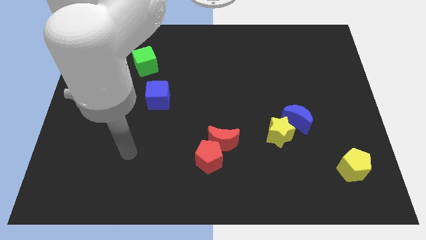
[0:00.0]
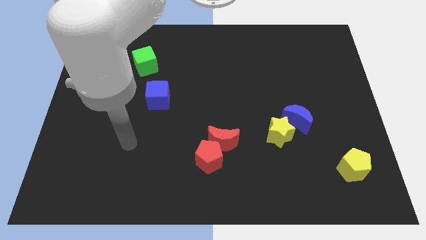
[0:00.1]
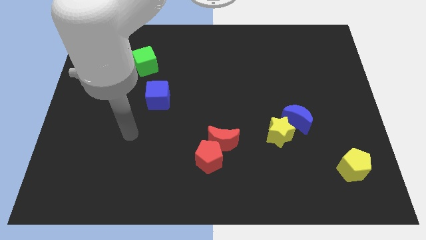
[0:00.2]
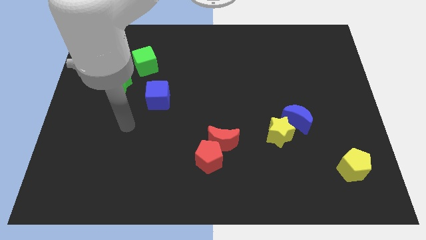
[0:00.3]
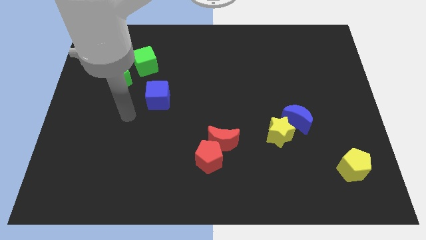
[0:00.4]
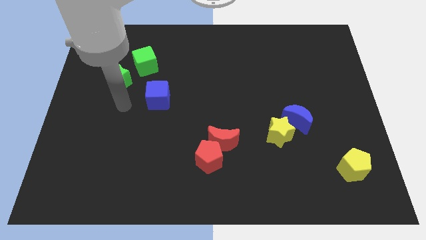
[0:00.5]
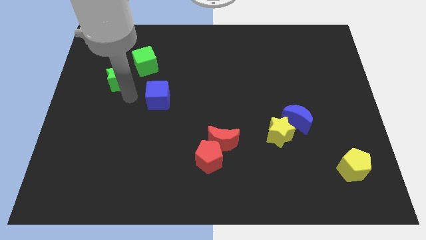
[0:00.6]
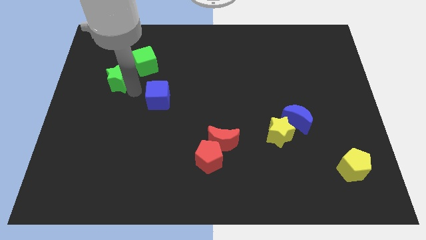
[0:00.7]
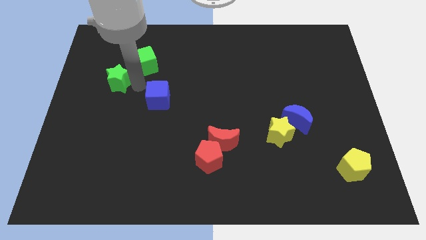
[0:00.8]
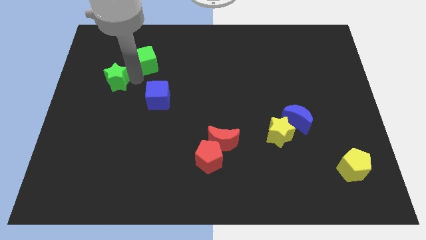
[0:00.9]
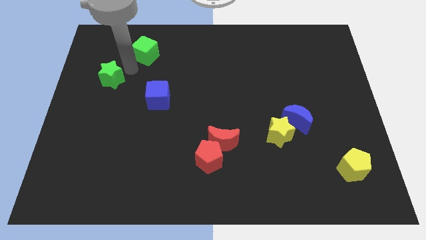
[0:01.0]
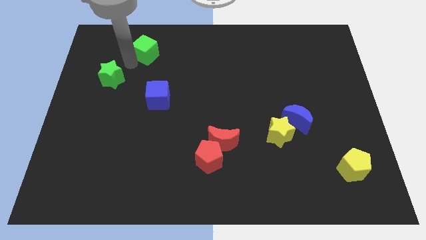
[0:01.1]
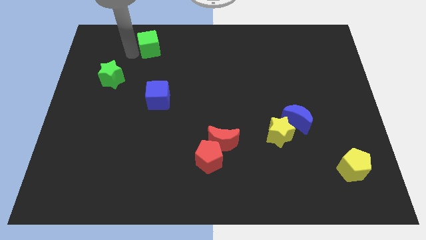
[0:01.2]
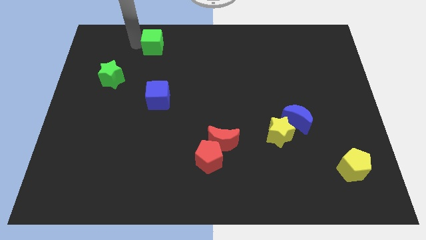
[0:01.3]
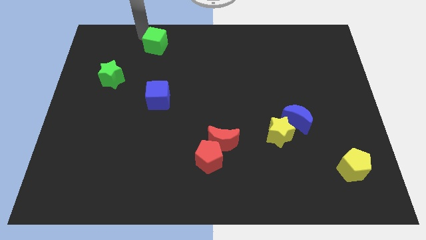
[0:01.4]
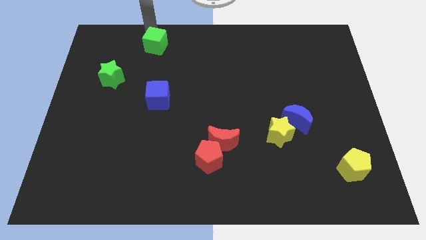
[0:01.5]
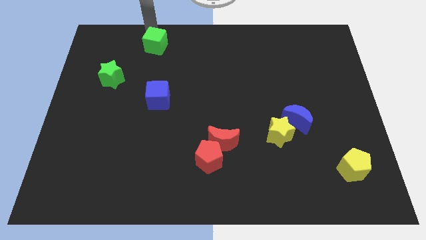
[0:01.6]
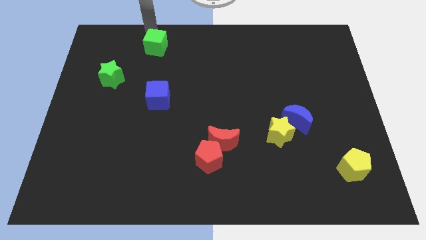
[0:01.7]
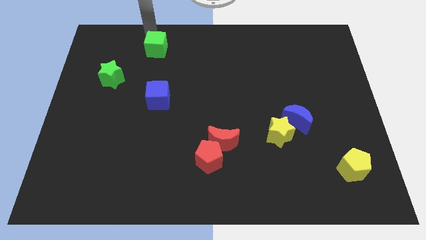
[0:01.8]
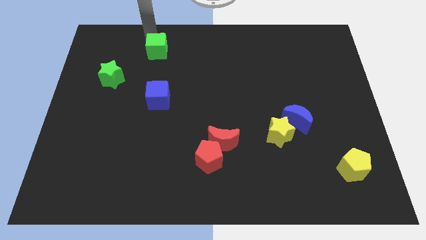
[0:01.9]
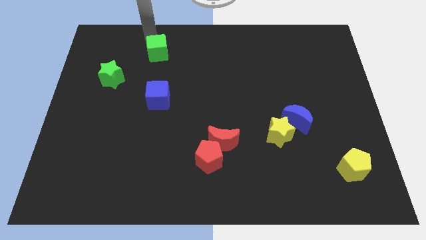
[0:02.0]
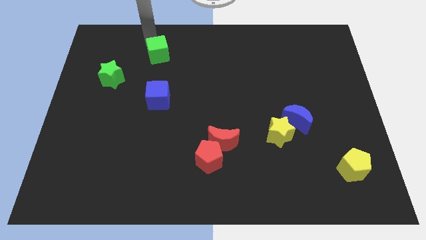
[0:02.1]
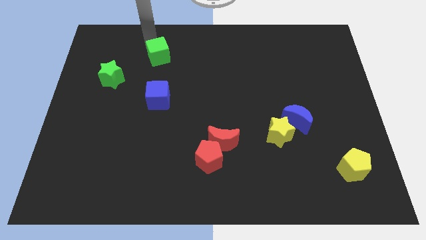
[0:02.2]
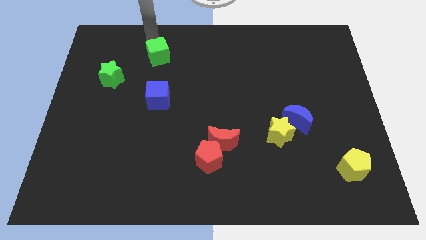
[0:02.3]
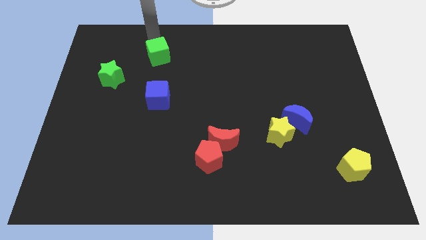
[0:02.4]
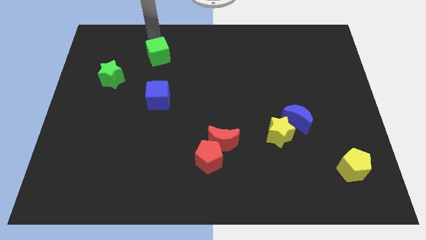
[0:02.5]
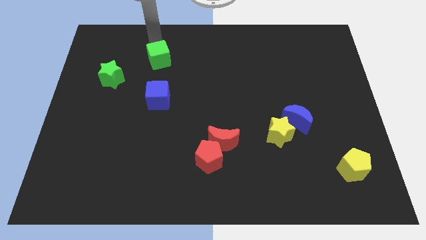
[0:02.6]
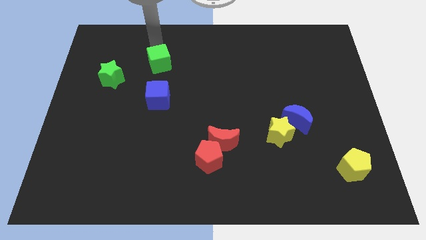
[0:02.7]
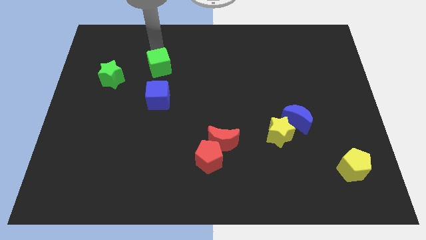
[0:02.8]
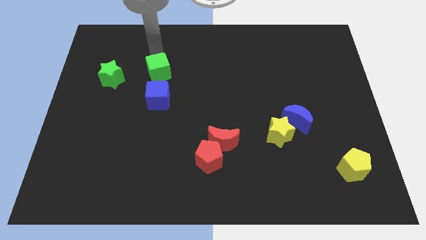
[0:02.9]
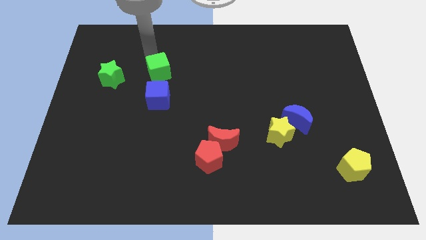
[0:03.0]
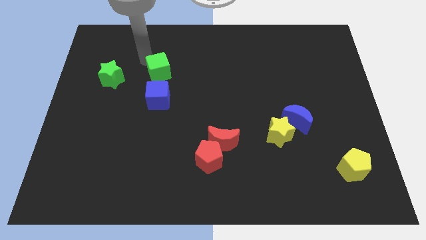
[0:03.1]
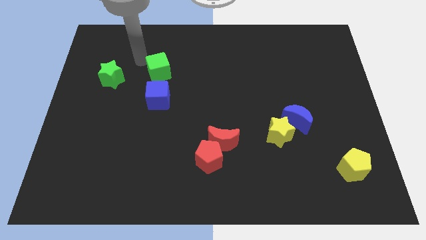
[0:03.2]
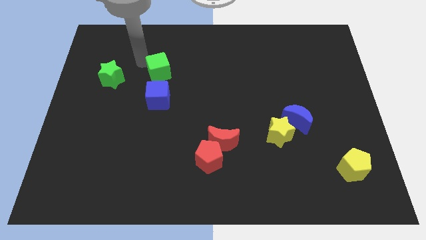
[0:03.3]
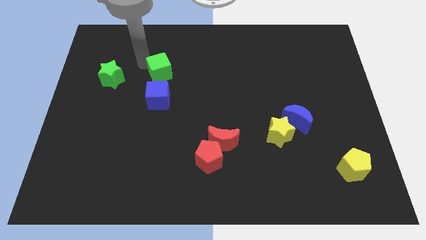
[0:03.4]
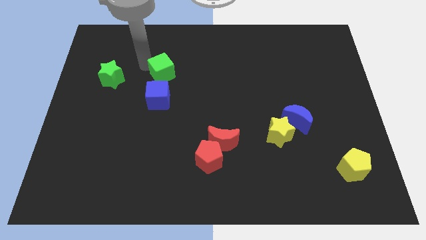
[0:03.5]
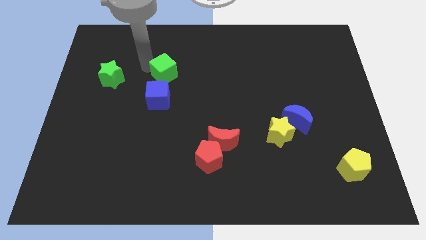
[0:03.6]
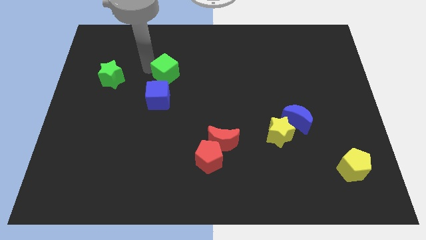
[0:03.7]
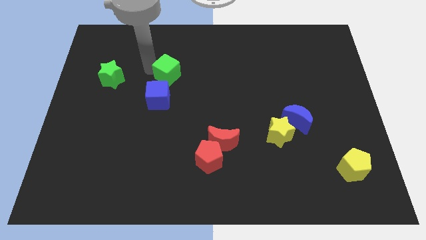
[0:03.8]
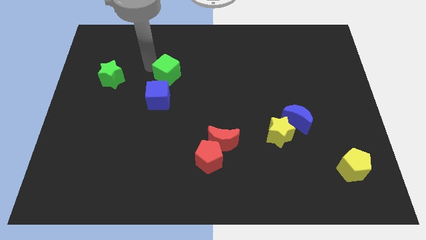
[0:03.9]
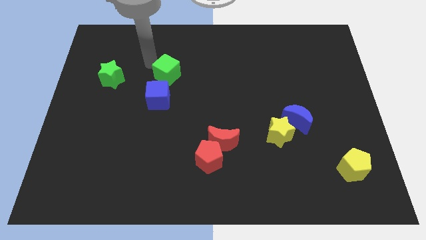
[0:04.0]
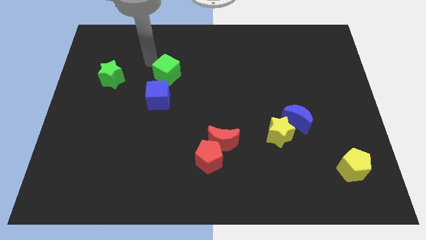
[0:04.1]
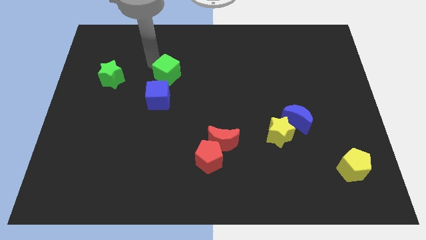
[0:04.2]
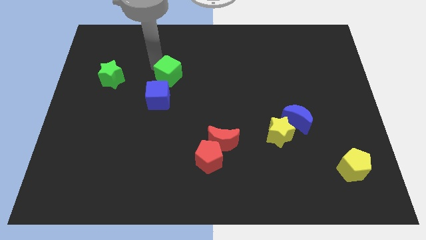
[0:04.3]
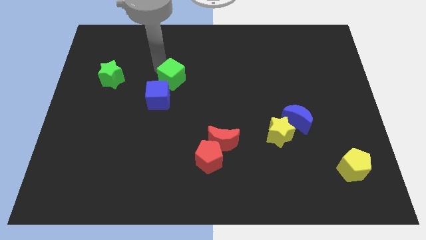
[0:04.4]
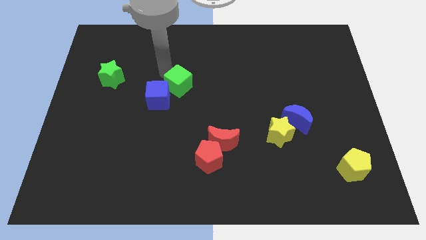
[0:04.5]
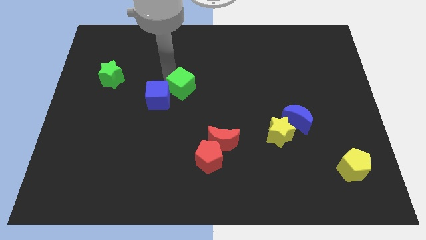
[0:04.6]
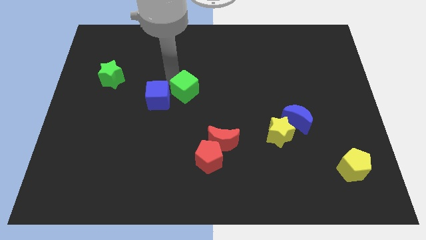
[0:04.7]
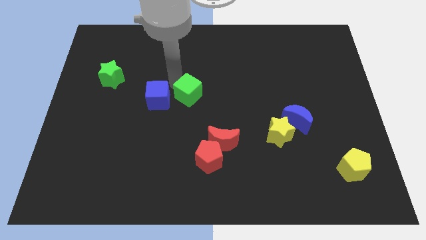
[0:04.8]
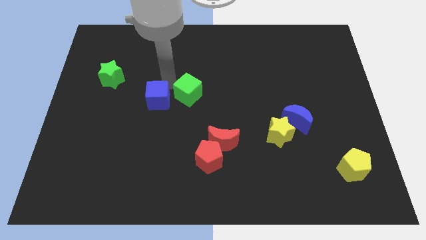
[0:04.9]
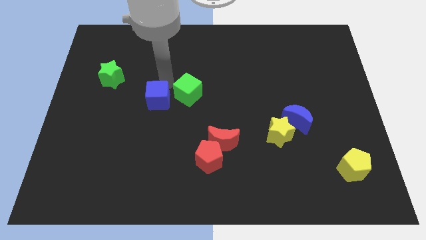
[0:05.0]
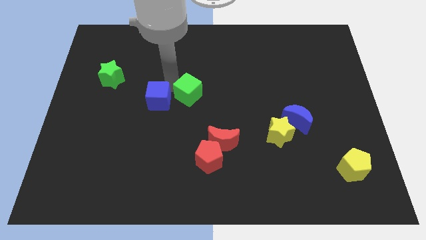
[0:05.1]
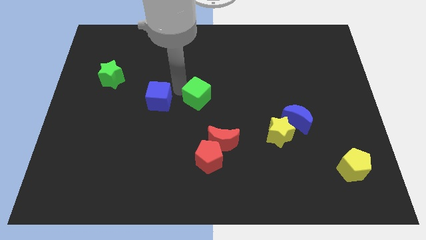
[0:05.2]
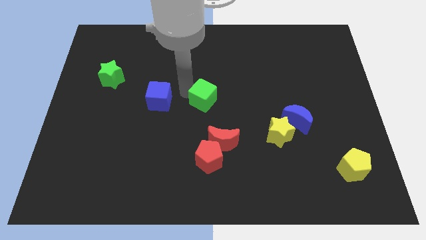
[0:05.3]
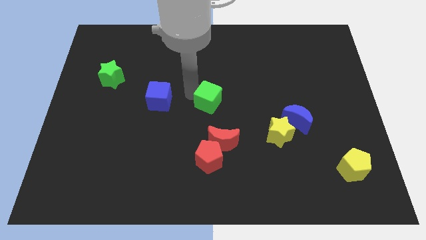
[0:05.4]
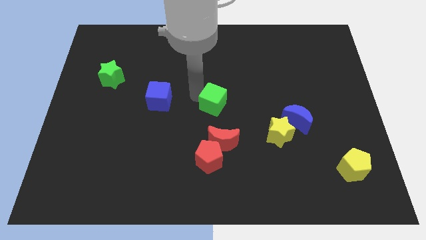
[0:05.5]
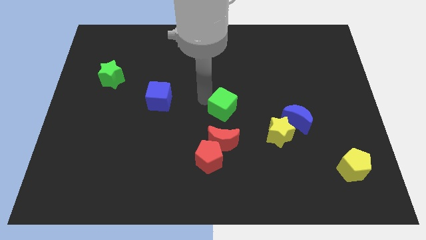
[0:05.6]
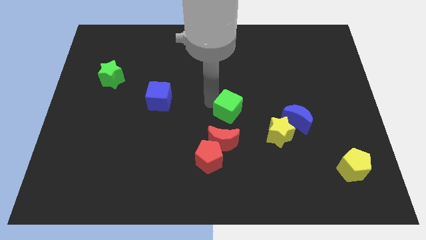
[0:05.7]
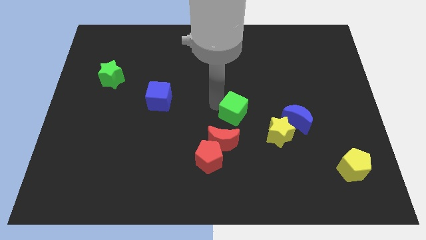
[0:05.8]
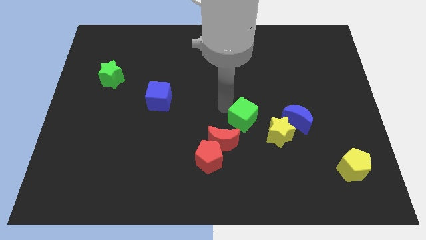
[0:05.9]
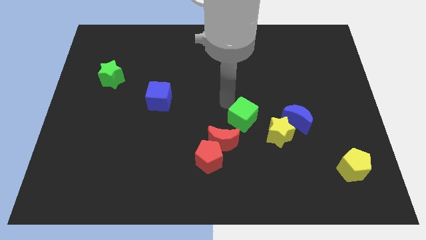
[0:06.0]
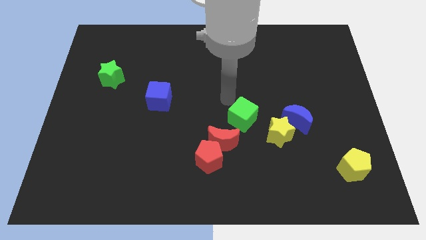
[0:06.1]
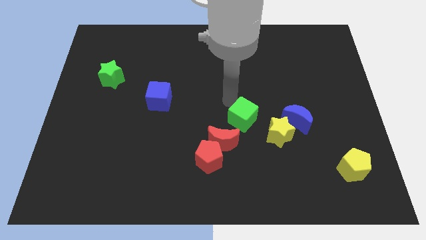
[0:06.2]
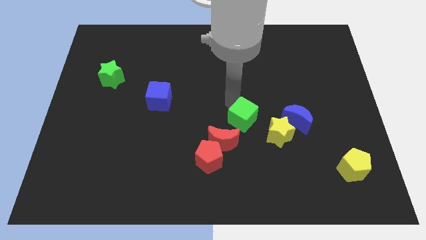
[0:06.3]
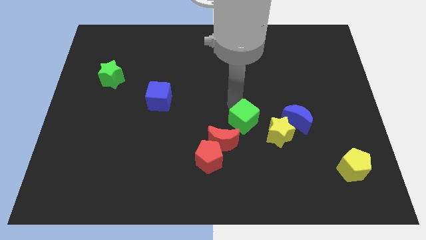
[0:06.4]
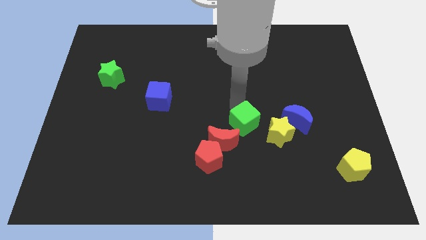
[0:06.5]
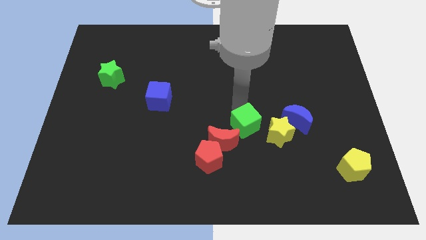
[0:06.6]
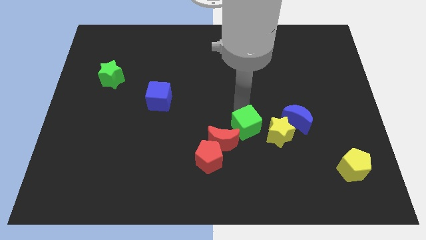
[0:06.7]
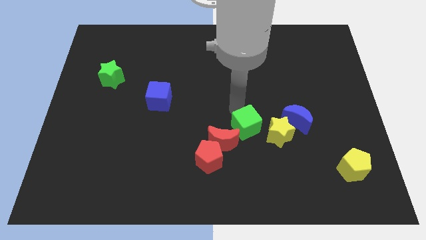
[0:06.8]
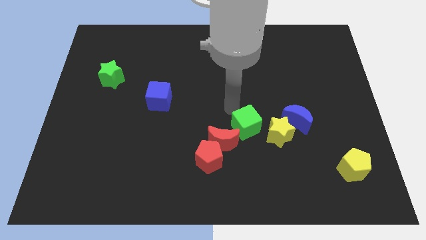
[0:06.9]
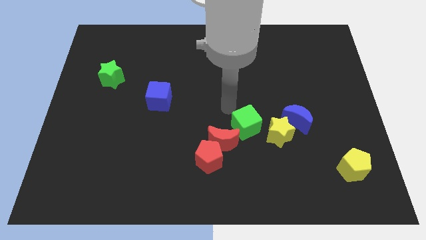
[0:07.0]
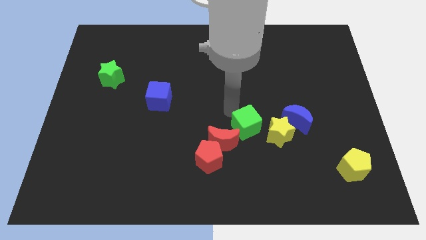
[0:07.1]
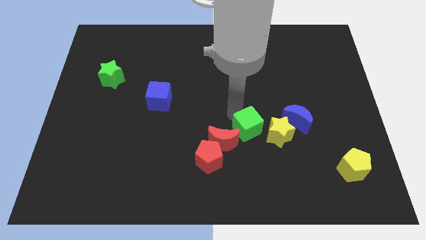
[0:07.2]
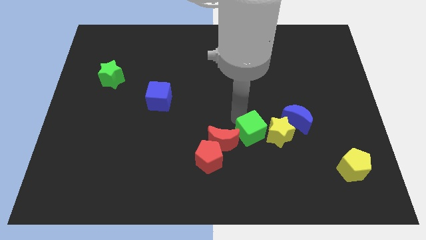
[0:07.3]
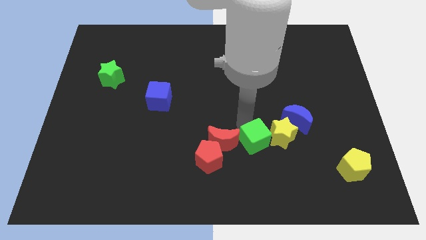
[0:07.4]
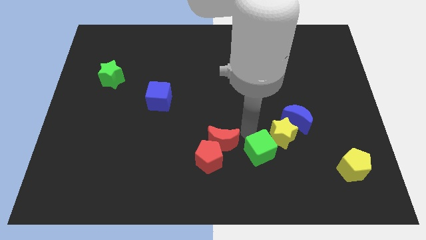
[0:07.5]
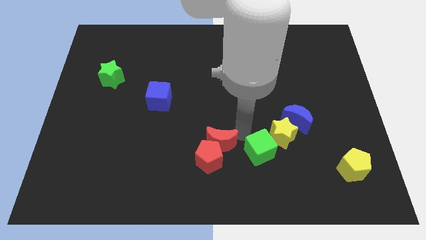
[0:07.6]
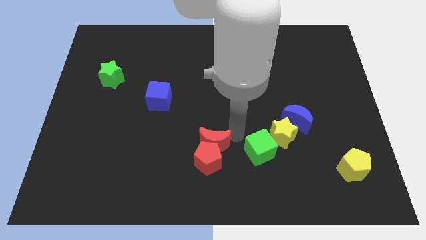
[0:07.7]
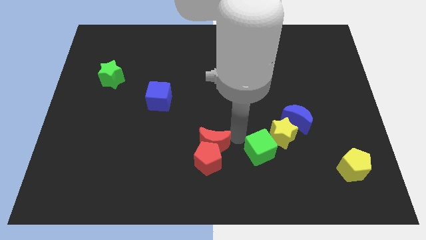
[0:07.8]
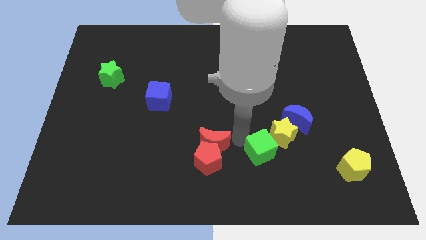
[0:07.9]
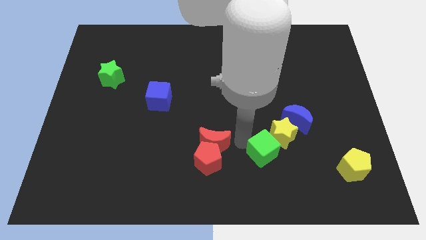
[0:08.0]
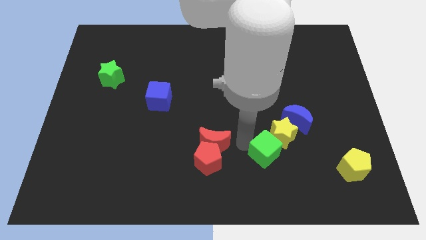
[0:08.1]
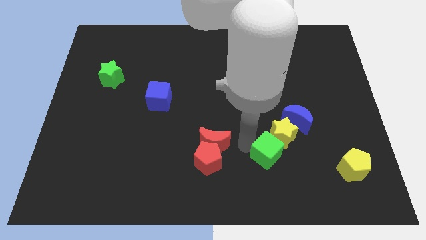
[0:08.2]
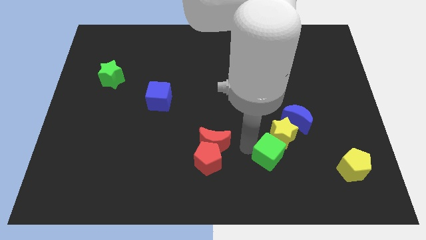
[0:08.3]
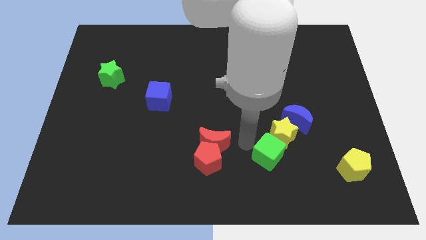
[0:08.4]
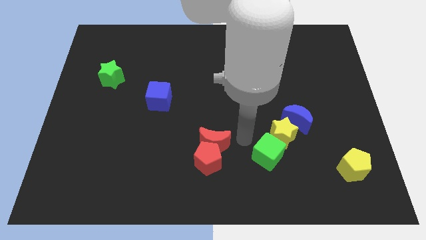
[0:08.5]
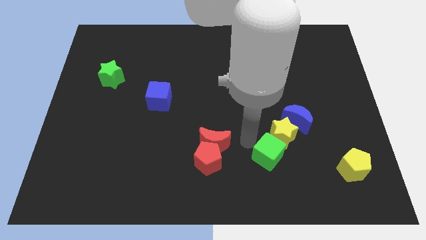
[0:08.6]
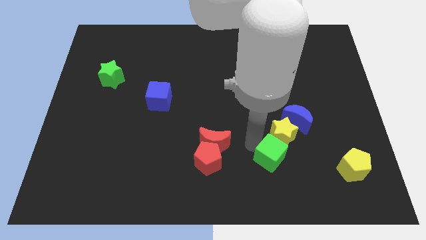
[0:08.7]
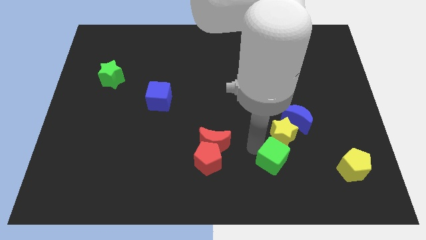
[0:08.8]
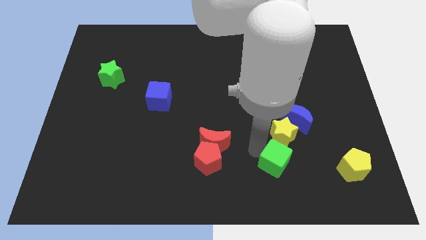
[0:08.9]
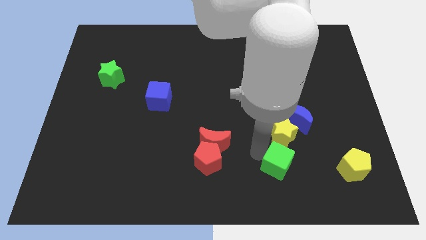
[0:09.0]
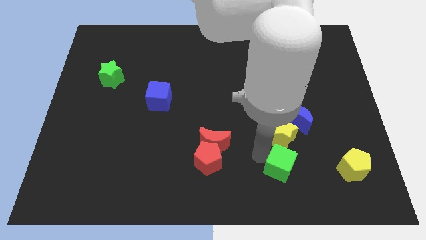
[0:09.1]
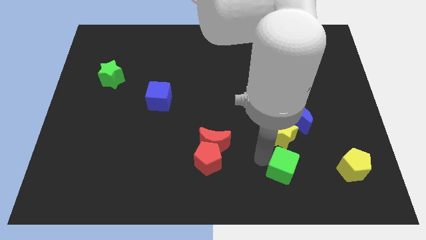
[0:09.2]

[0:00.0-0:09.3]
push the green cube to the bottom of the blue moon
